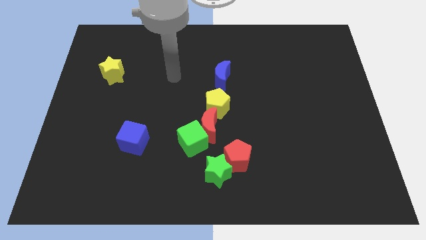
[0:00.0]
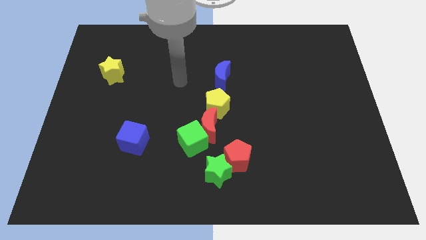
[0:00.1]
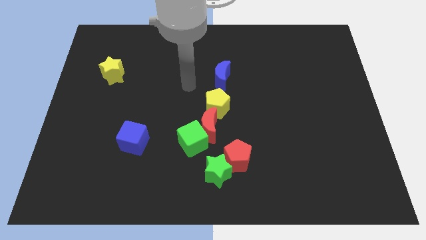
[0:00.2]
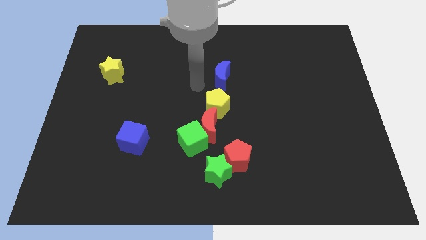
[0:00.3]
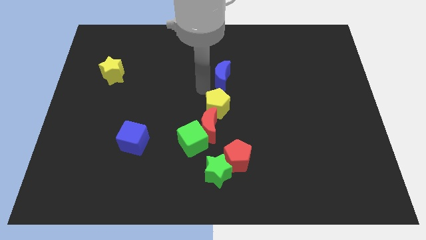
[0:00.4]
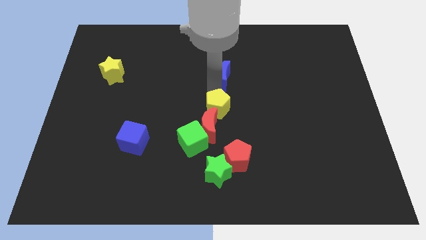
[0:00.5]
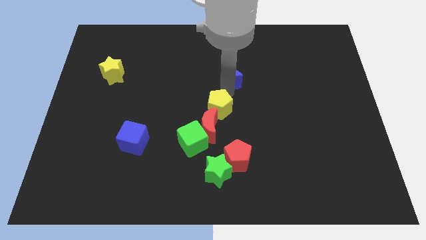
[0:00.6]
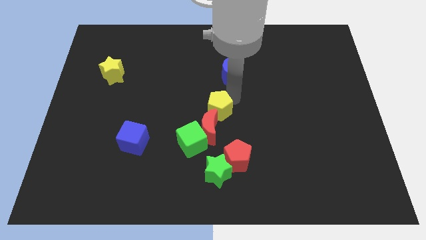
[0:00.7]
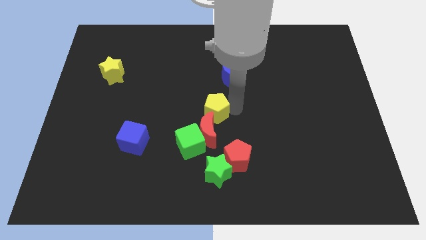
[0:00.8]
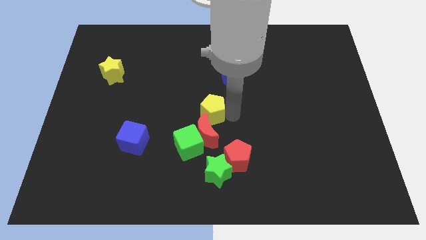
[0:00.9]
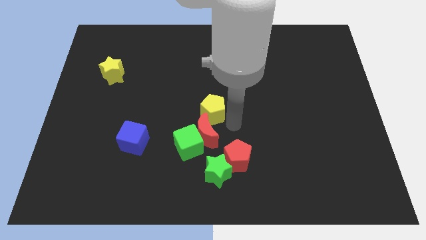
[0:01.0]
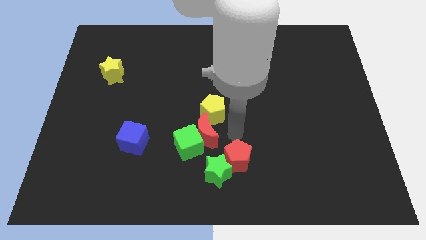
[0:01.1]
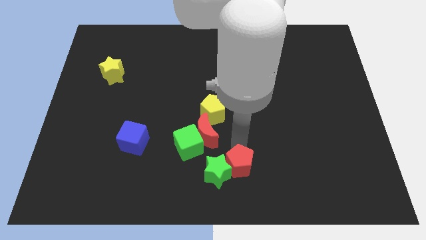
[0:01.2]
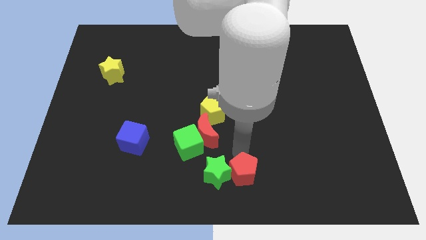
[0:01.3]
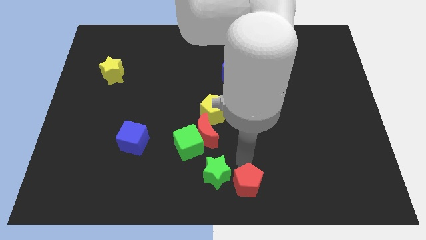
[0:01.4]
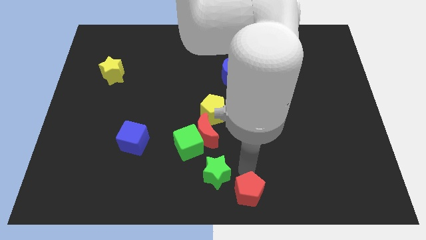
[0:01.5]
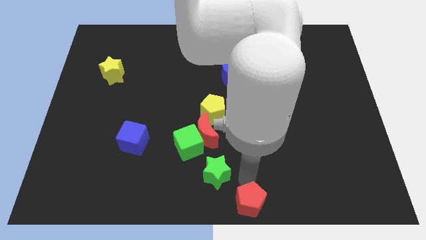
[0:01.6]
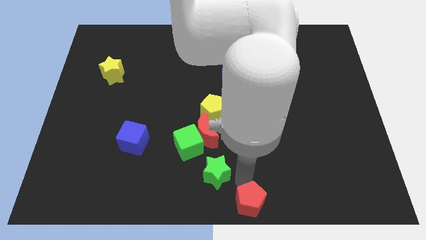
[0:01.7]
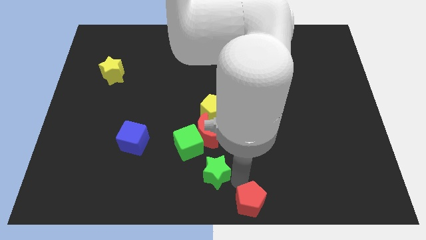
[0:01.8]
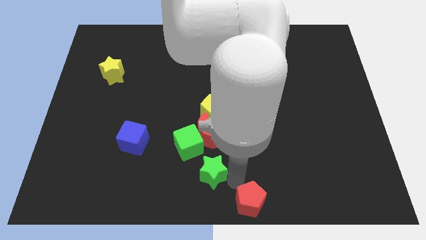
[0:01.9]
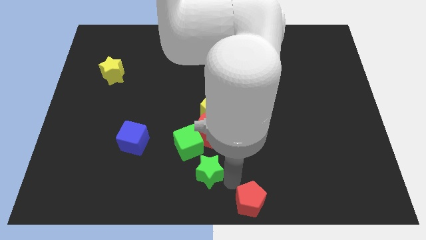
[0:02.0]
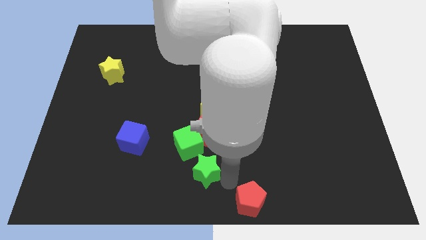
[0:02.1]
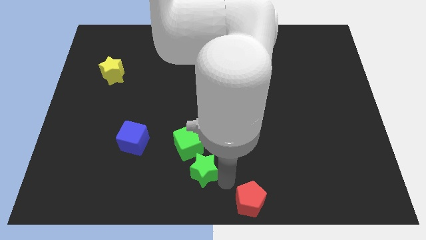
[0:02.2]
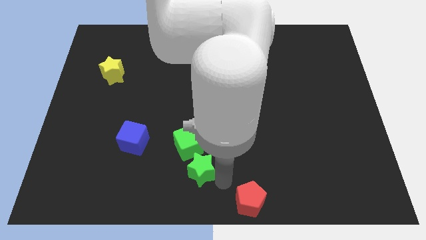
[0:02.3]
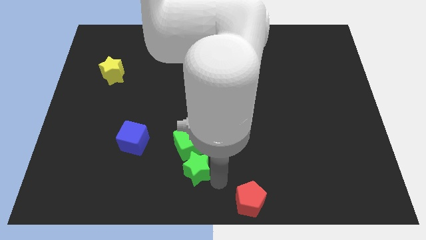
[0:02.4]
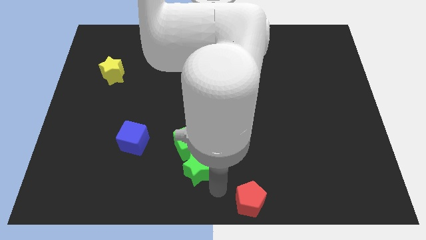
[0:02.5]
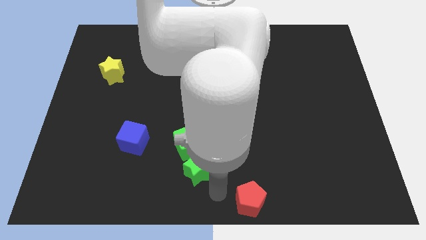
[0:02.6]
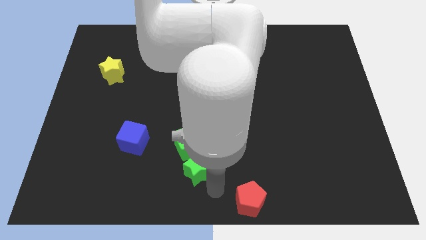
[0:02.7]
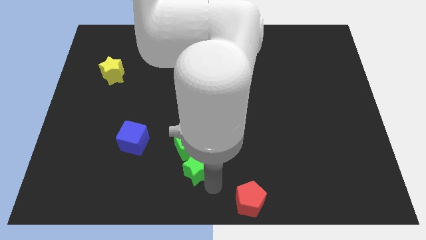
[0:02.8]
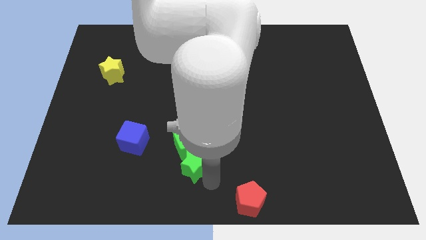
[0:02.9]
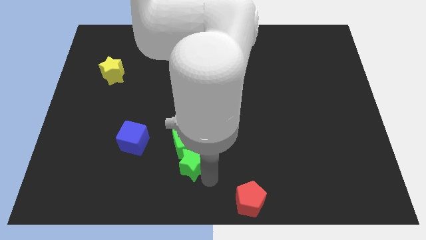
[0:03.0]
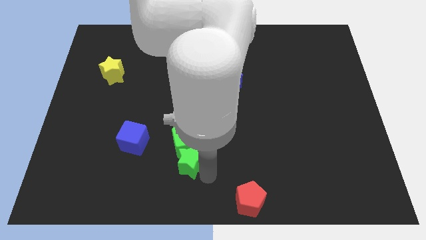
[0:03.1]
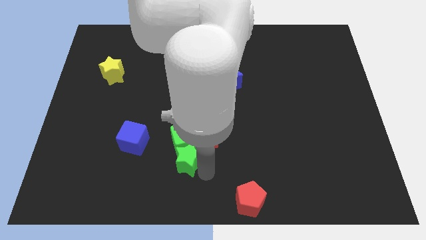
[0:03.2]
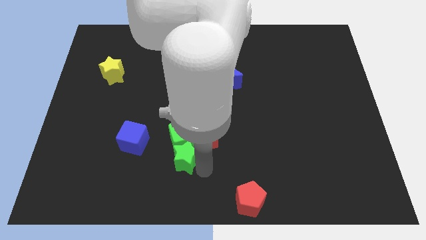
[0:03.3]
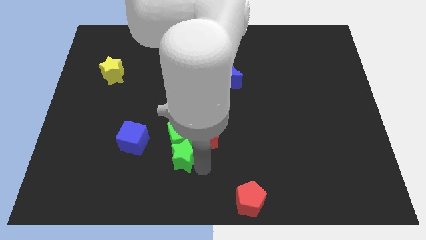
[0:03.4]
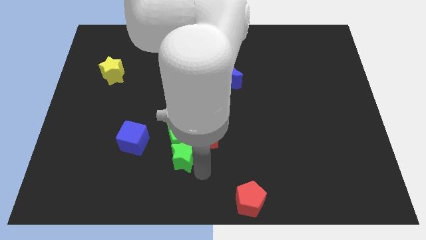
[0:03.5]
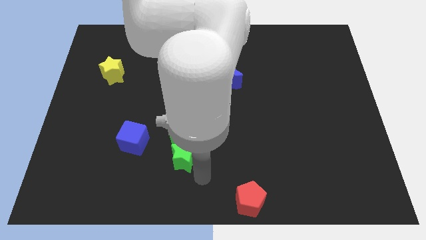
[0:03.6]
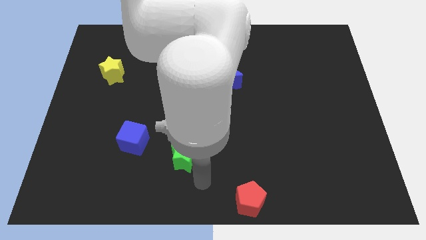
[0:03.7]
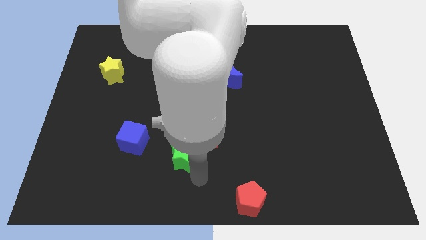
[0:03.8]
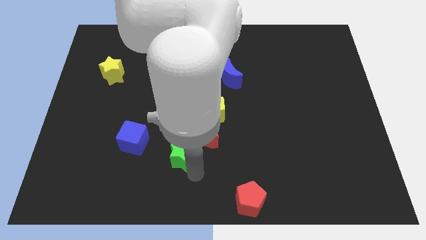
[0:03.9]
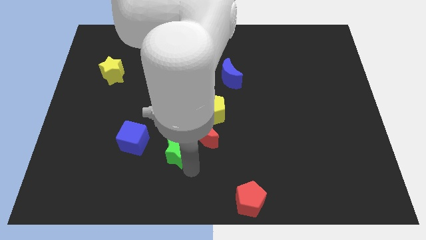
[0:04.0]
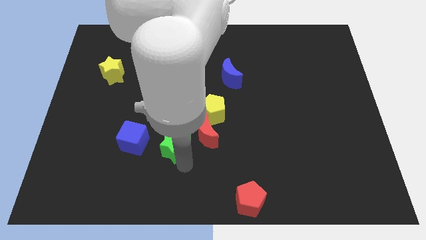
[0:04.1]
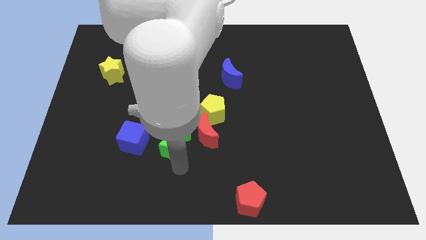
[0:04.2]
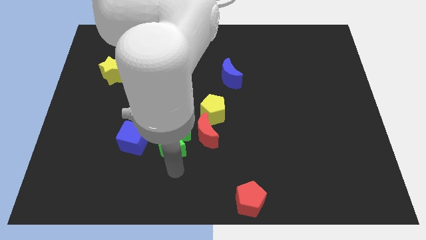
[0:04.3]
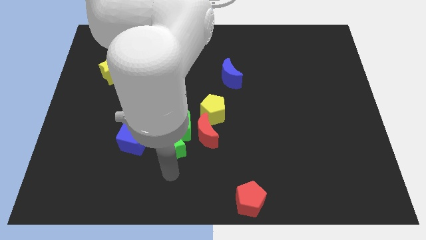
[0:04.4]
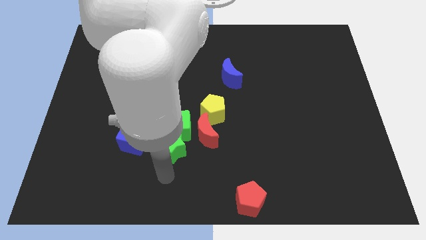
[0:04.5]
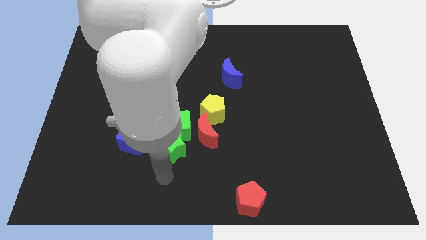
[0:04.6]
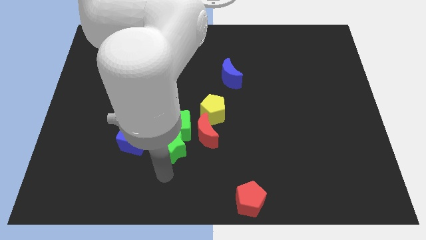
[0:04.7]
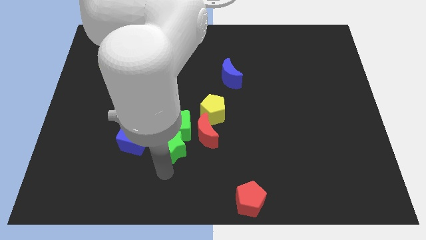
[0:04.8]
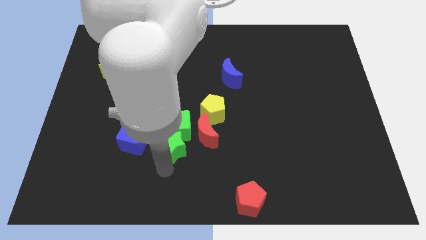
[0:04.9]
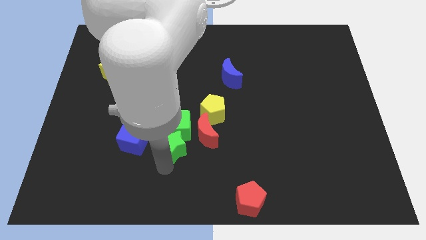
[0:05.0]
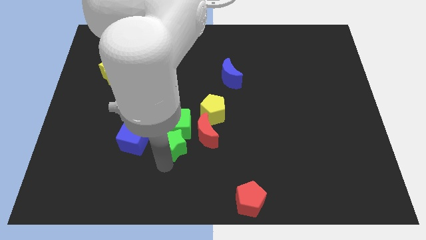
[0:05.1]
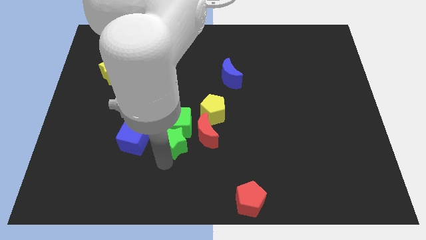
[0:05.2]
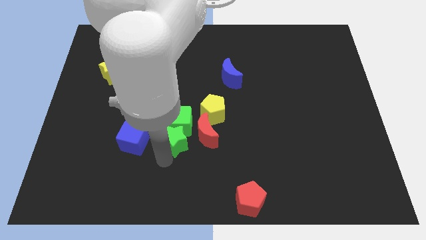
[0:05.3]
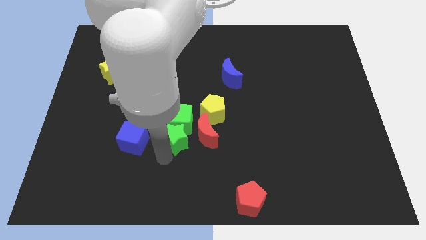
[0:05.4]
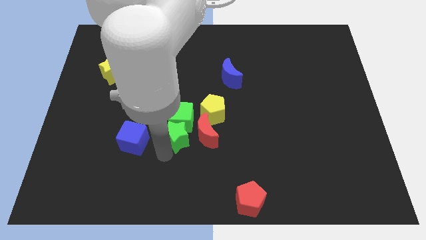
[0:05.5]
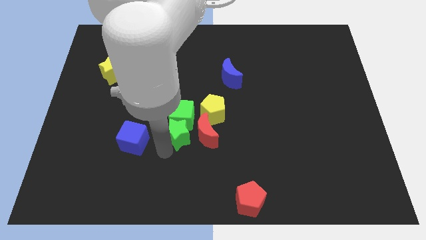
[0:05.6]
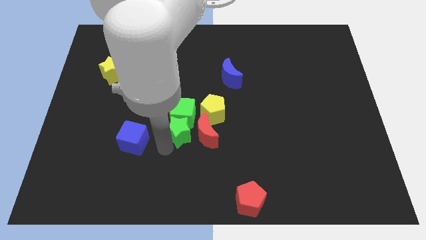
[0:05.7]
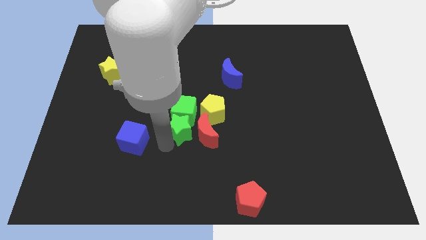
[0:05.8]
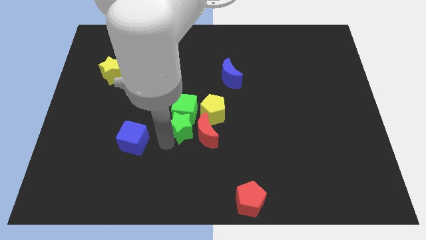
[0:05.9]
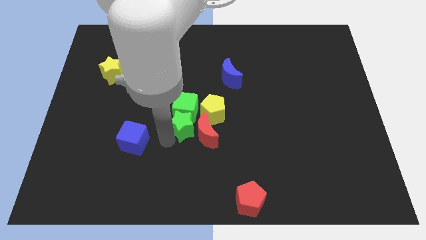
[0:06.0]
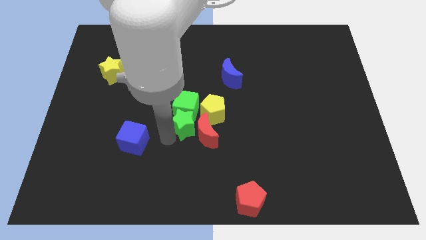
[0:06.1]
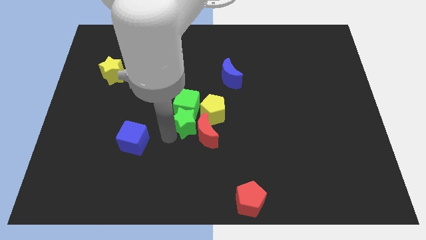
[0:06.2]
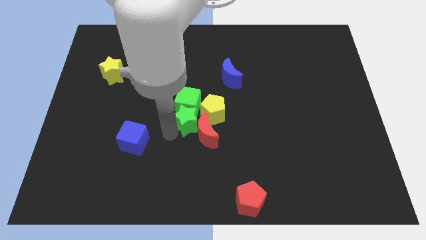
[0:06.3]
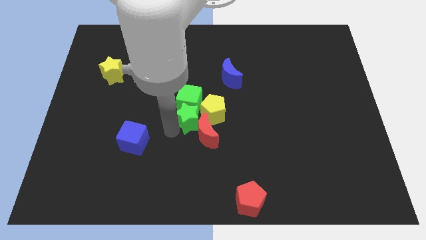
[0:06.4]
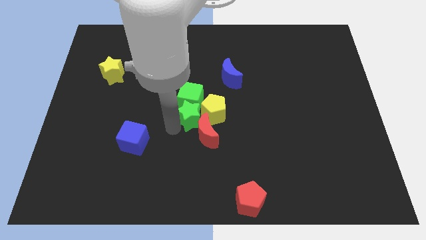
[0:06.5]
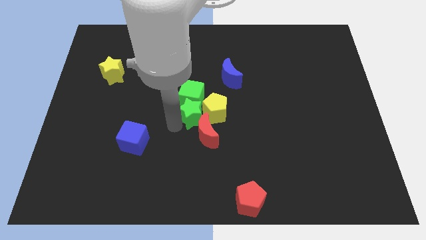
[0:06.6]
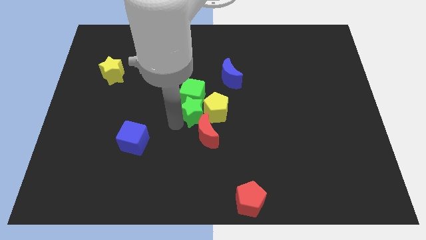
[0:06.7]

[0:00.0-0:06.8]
slide the green star to the top left side of the yellow pentagon
